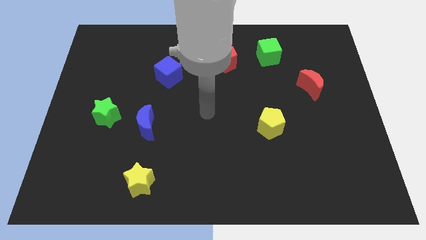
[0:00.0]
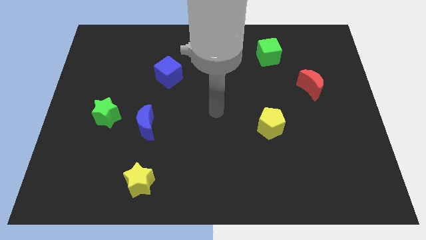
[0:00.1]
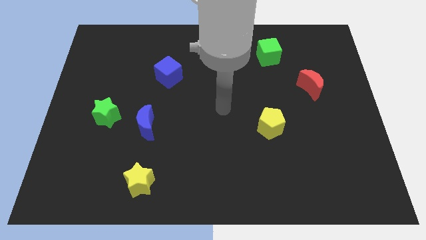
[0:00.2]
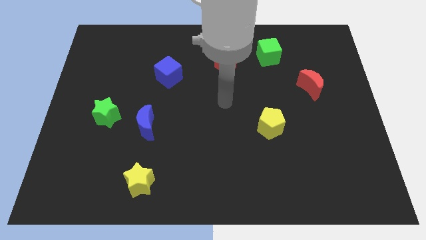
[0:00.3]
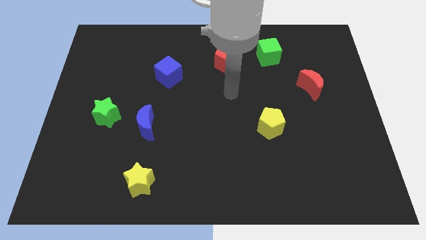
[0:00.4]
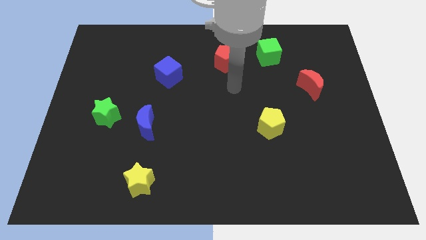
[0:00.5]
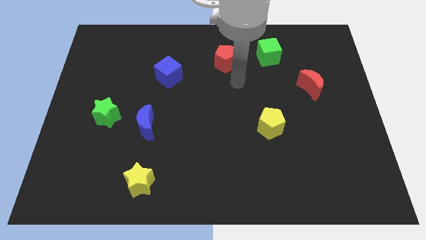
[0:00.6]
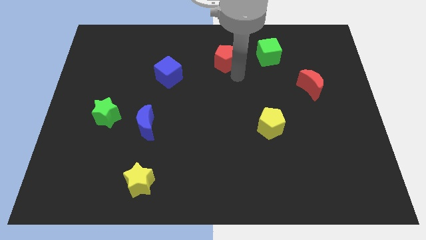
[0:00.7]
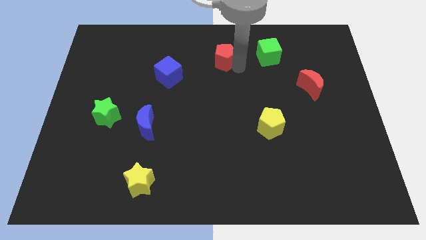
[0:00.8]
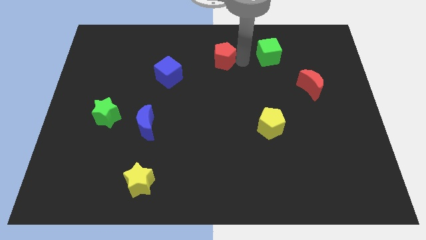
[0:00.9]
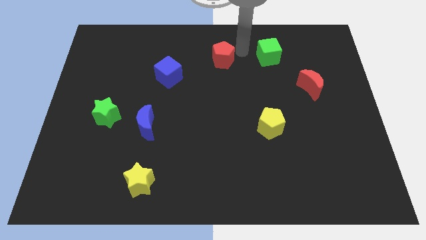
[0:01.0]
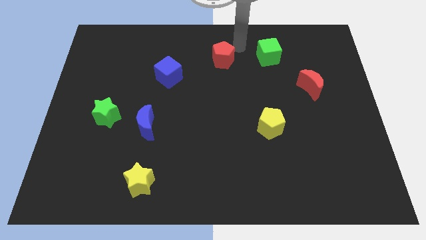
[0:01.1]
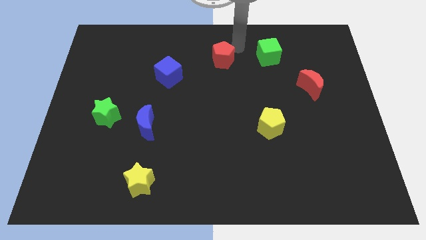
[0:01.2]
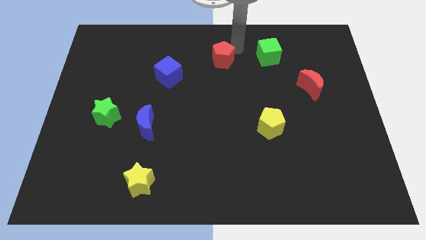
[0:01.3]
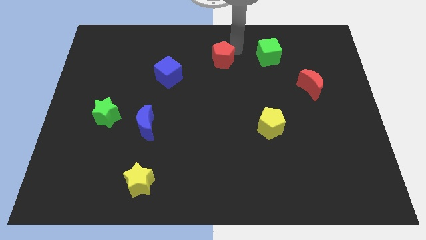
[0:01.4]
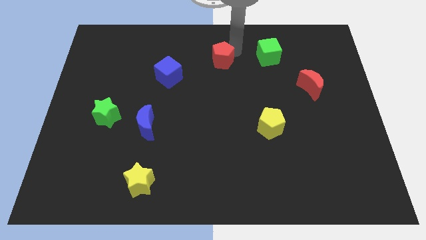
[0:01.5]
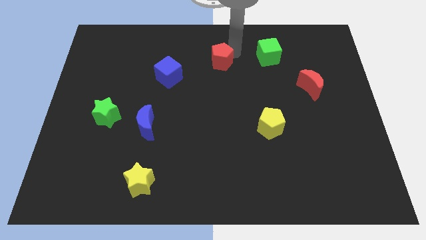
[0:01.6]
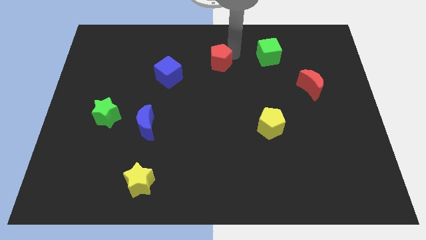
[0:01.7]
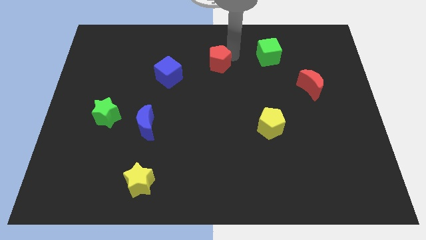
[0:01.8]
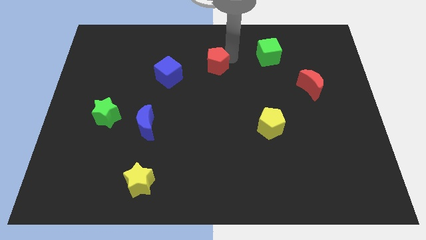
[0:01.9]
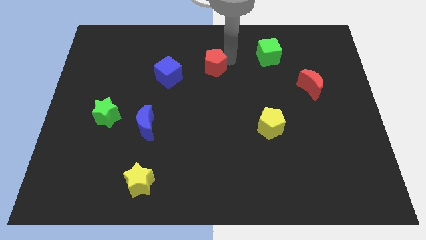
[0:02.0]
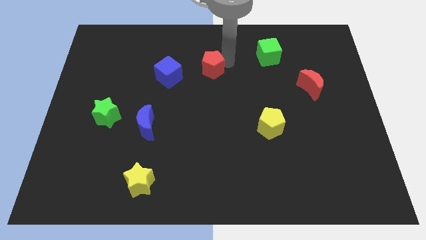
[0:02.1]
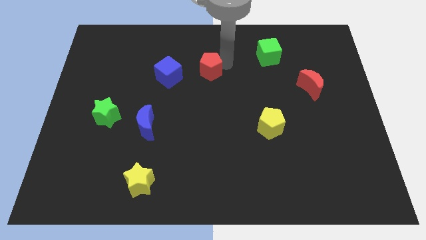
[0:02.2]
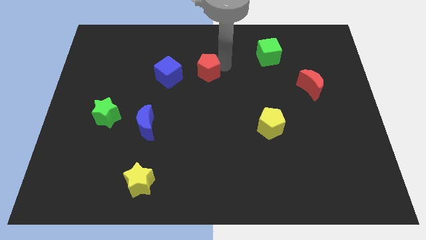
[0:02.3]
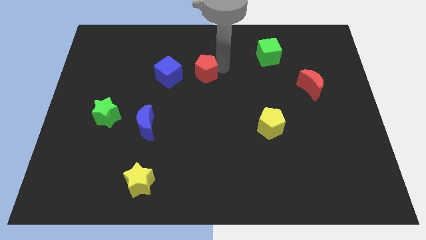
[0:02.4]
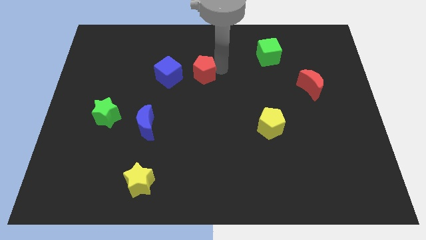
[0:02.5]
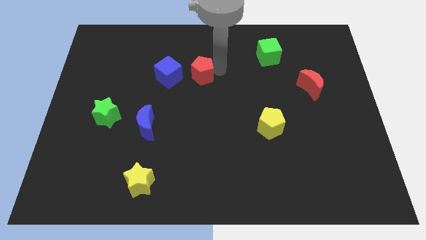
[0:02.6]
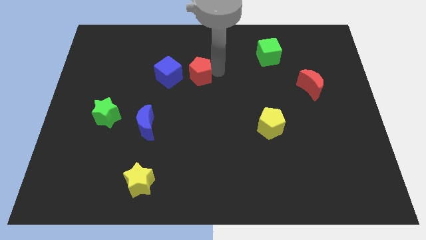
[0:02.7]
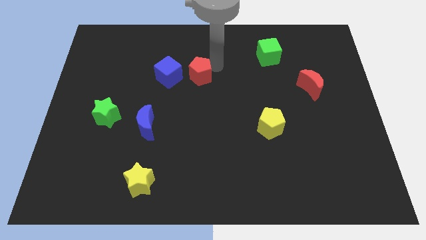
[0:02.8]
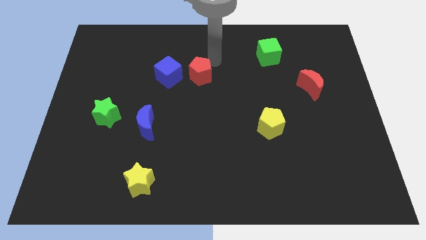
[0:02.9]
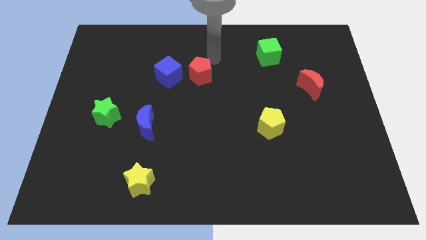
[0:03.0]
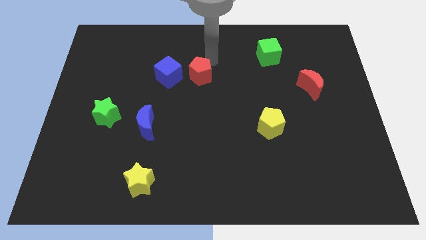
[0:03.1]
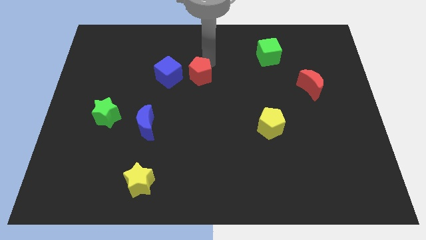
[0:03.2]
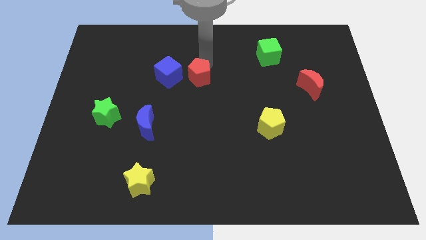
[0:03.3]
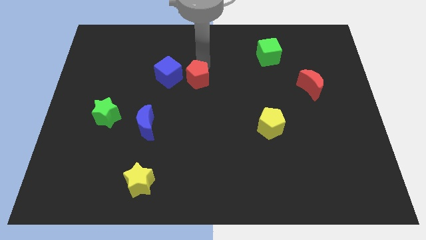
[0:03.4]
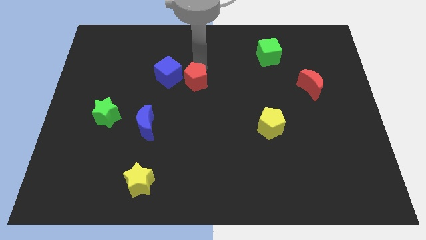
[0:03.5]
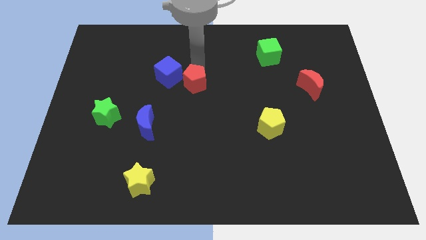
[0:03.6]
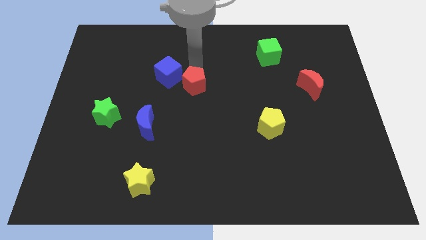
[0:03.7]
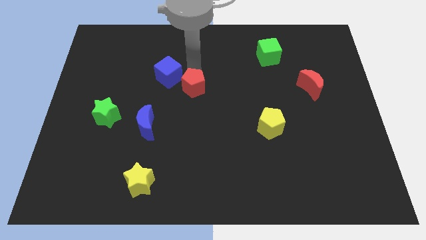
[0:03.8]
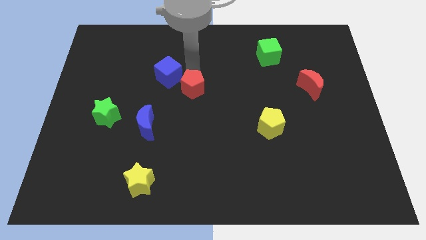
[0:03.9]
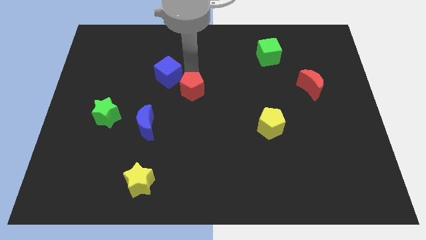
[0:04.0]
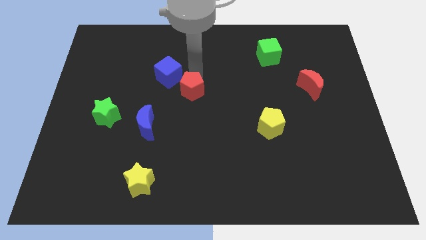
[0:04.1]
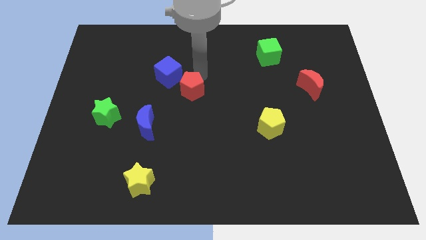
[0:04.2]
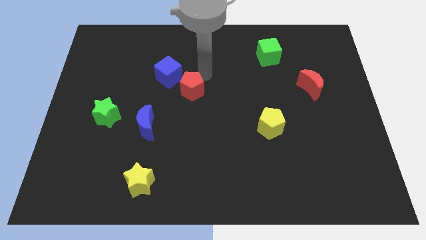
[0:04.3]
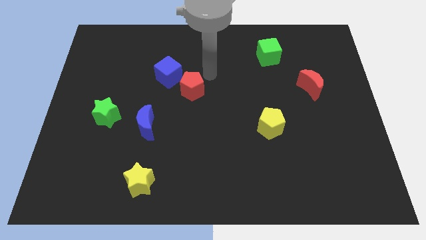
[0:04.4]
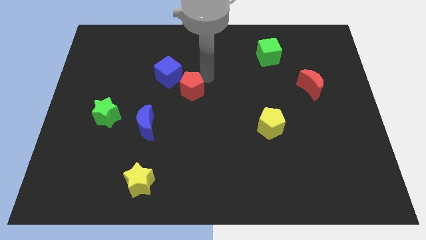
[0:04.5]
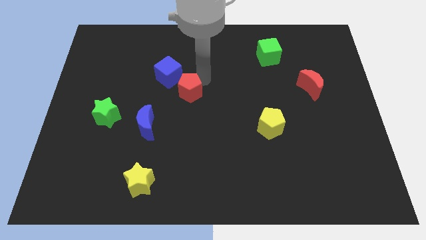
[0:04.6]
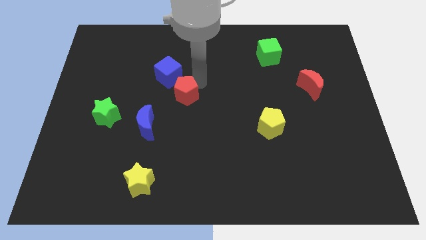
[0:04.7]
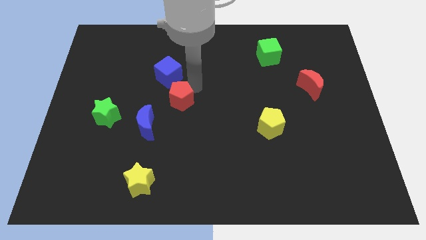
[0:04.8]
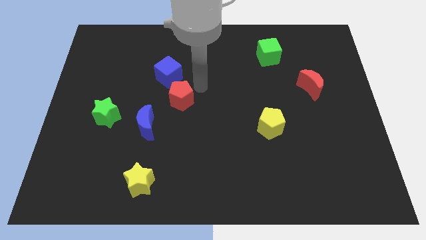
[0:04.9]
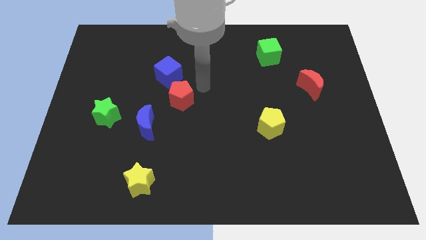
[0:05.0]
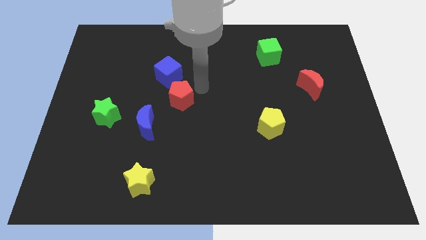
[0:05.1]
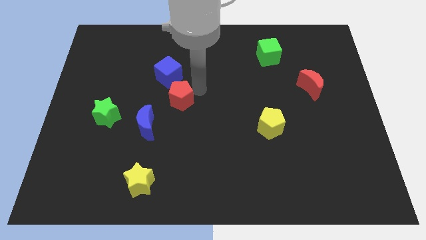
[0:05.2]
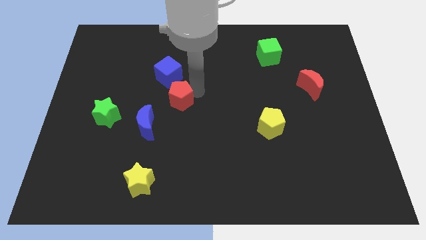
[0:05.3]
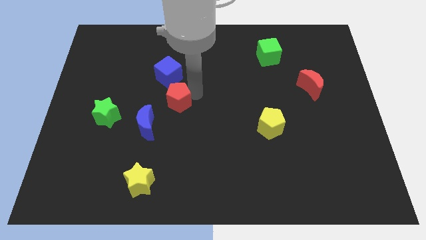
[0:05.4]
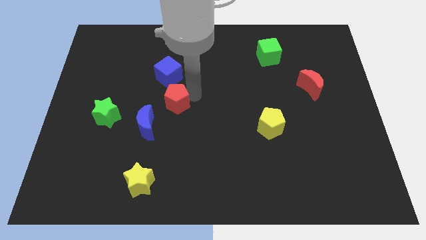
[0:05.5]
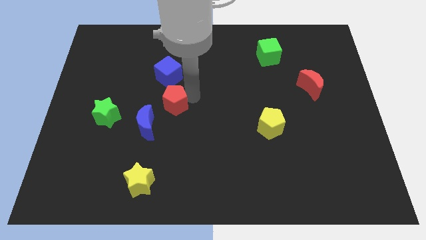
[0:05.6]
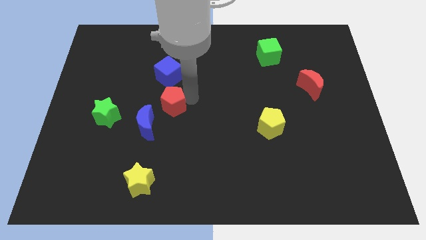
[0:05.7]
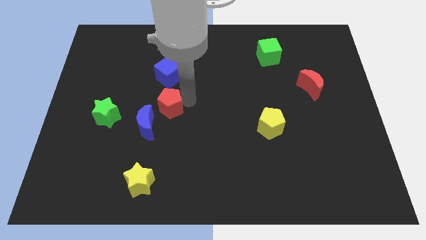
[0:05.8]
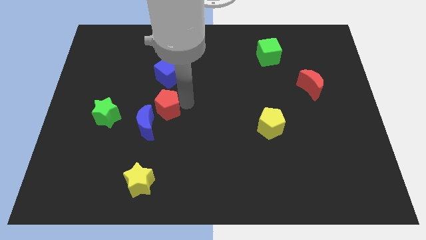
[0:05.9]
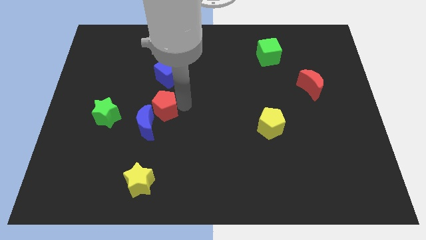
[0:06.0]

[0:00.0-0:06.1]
move the red pentagon next to the blue moon

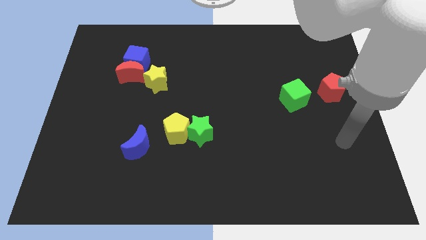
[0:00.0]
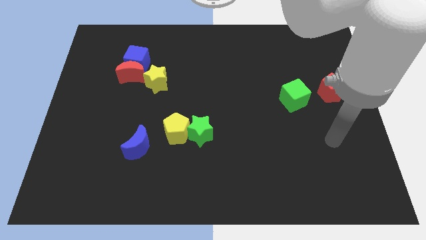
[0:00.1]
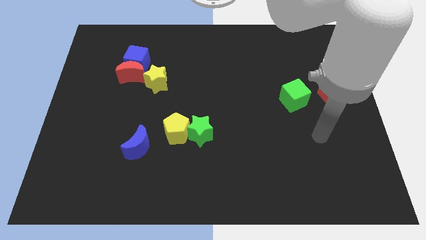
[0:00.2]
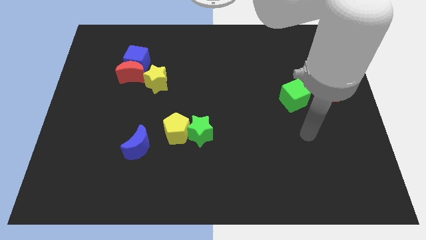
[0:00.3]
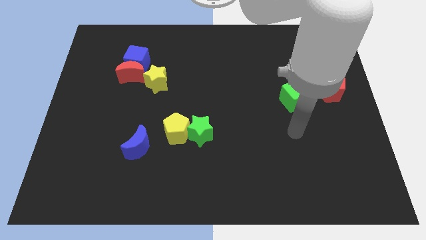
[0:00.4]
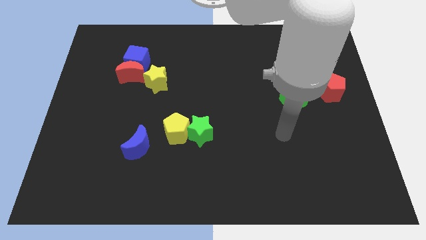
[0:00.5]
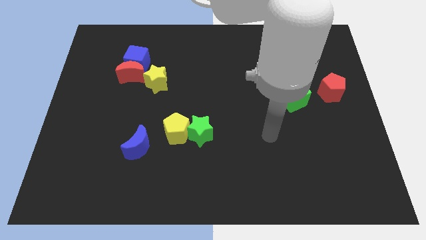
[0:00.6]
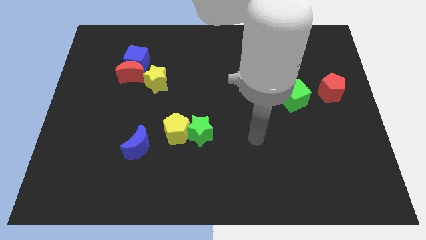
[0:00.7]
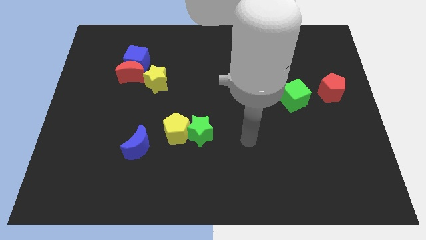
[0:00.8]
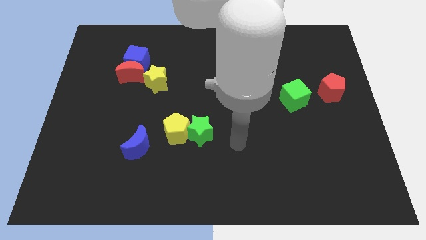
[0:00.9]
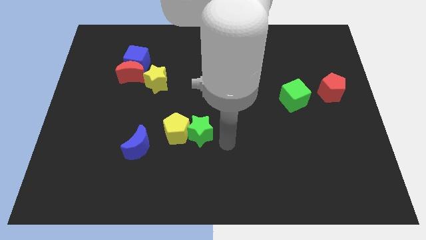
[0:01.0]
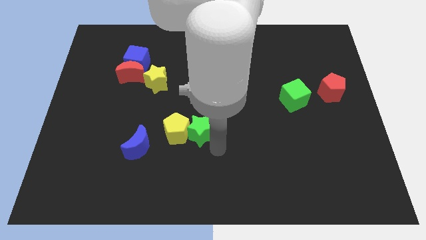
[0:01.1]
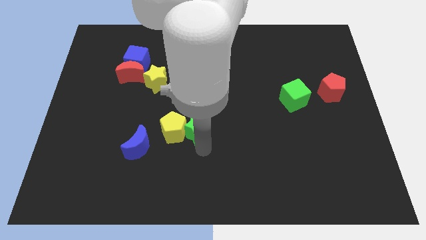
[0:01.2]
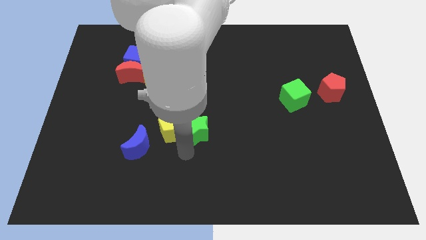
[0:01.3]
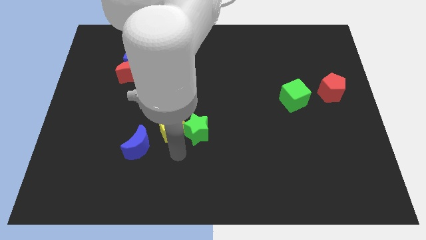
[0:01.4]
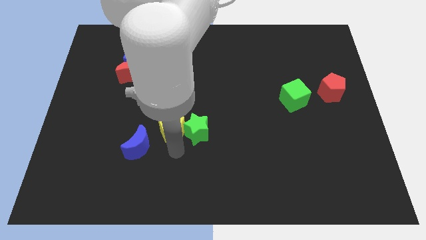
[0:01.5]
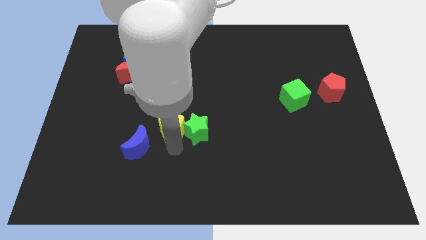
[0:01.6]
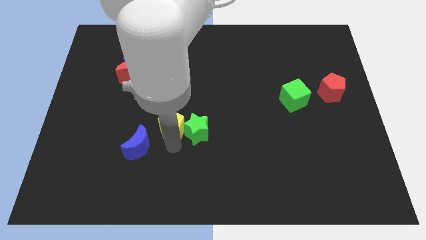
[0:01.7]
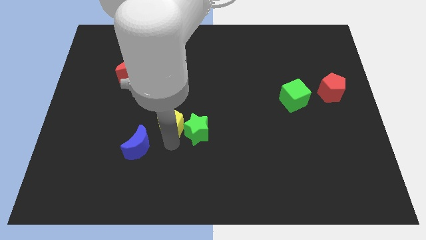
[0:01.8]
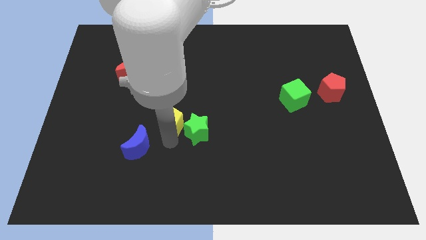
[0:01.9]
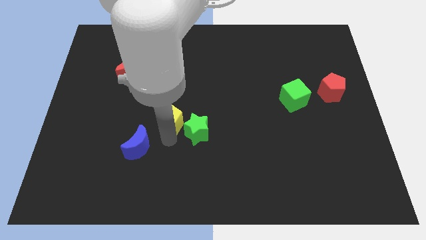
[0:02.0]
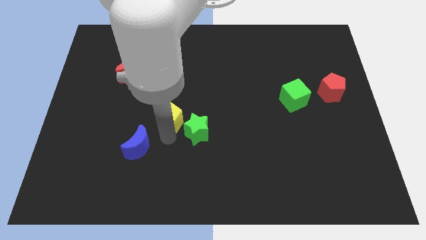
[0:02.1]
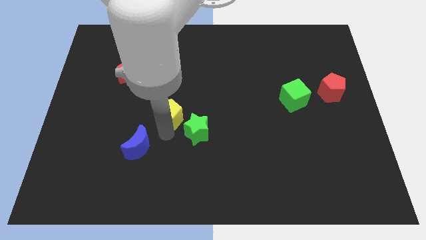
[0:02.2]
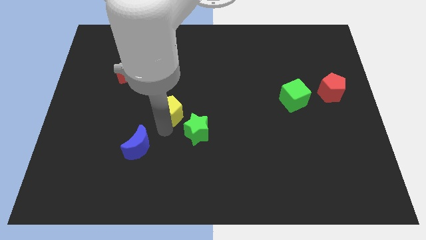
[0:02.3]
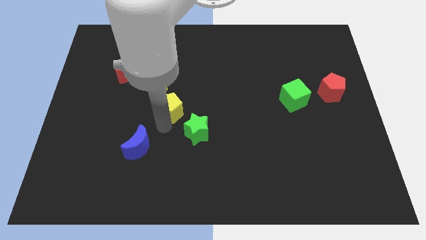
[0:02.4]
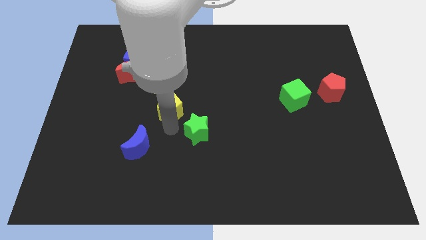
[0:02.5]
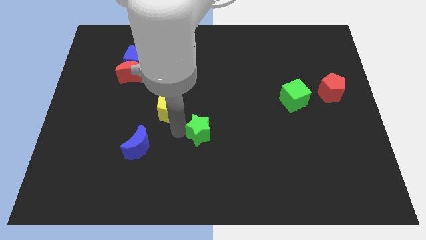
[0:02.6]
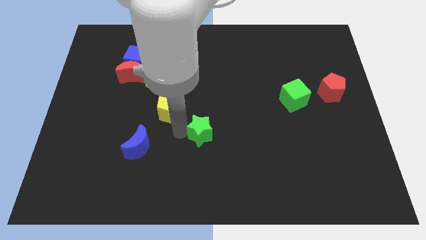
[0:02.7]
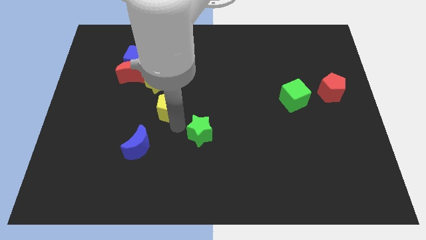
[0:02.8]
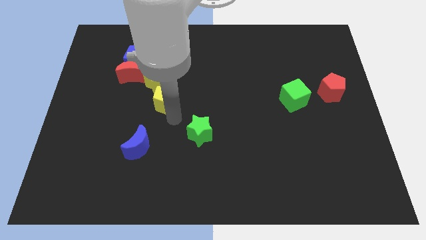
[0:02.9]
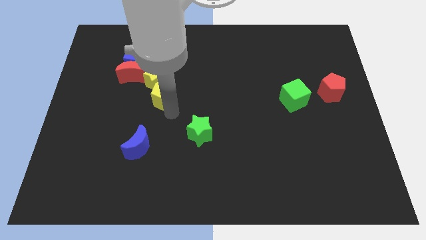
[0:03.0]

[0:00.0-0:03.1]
put the yellow pentagon towards the yellow star
